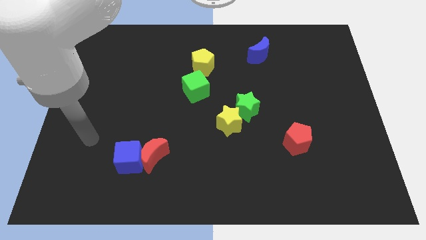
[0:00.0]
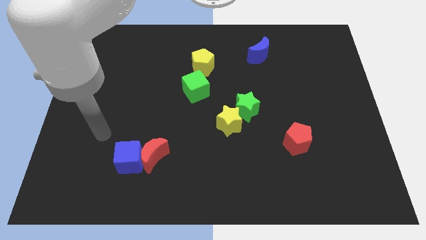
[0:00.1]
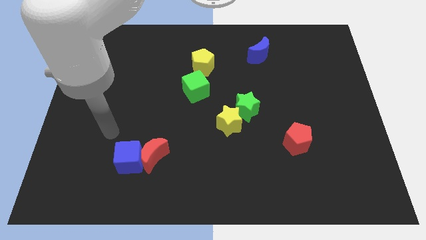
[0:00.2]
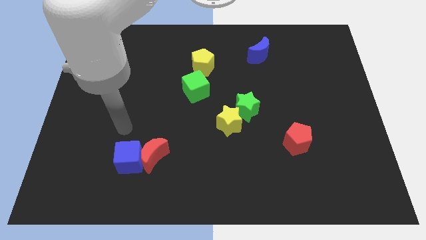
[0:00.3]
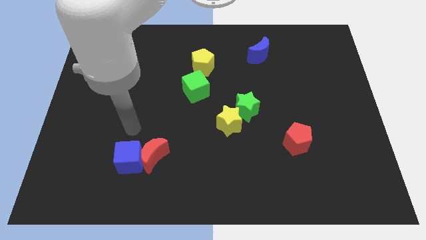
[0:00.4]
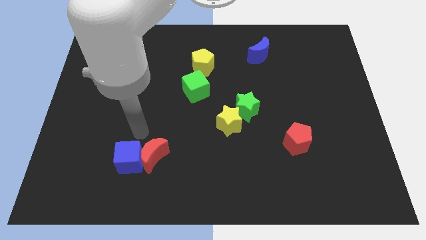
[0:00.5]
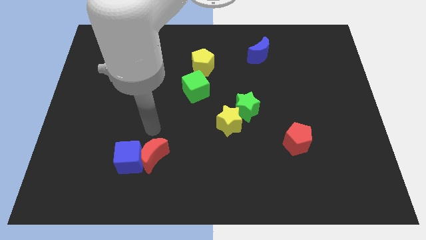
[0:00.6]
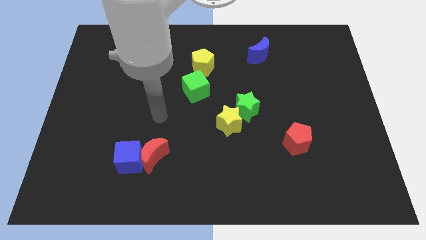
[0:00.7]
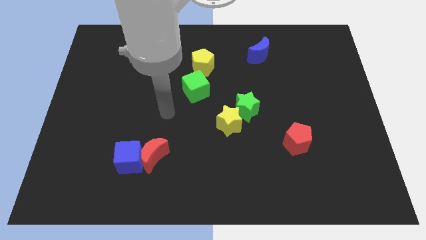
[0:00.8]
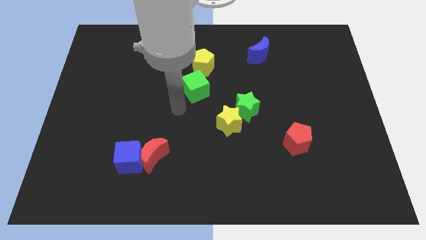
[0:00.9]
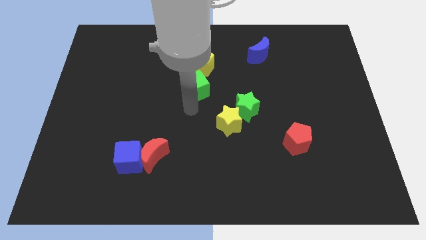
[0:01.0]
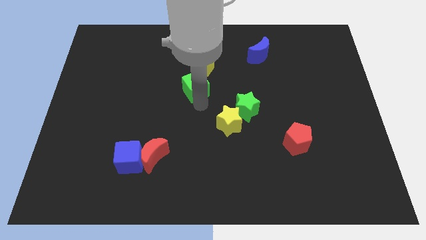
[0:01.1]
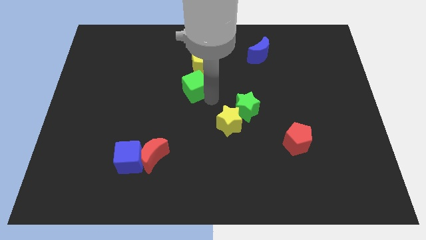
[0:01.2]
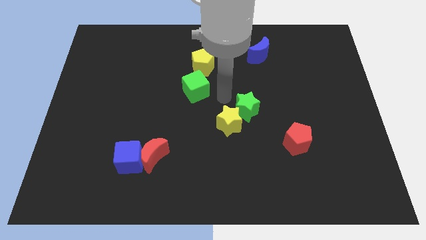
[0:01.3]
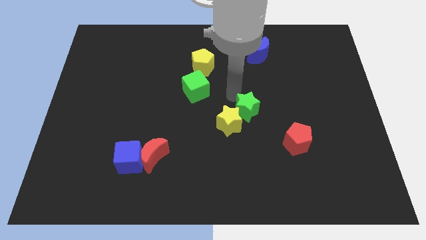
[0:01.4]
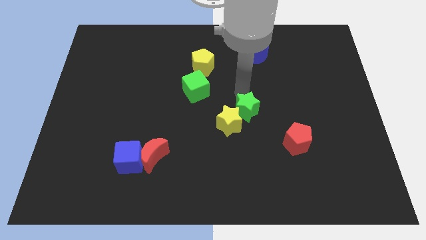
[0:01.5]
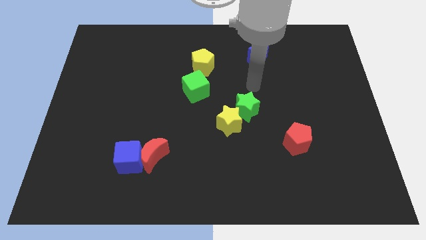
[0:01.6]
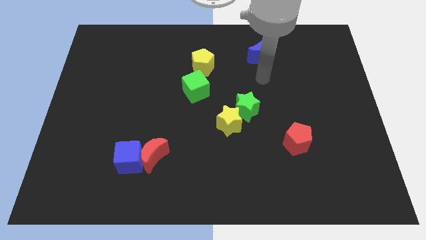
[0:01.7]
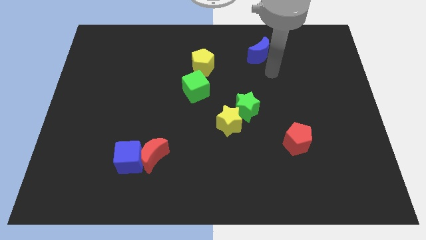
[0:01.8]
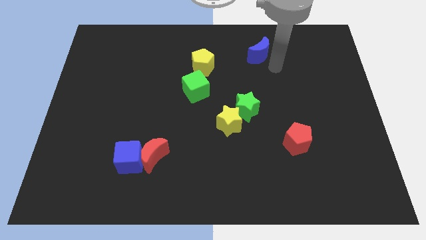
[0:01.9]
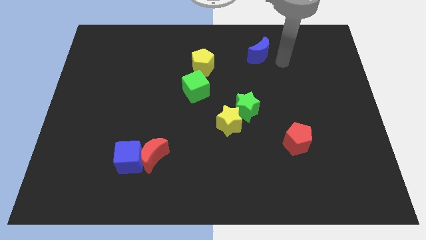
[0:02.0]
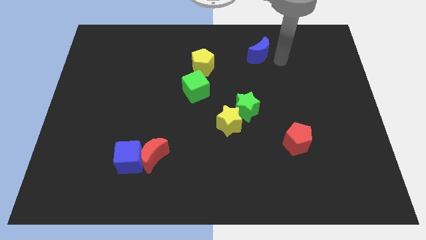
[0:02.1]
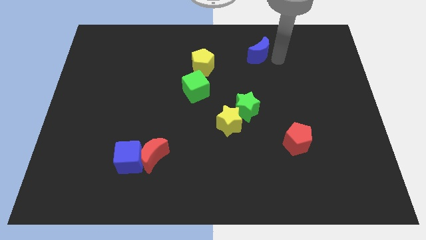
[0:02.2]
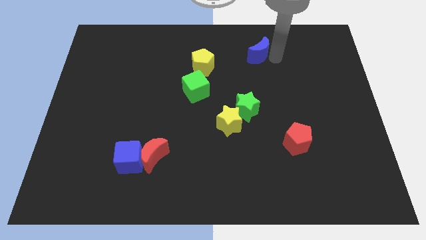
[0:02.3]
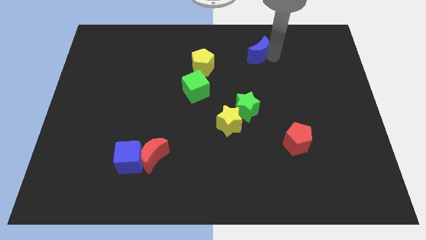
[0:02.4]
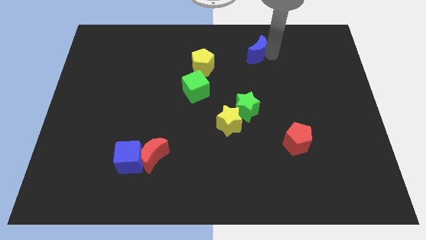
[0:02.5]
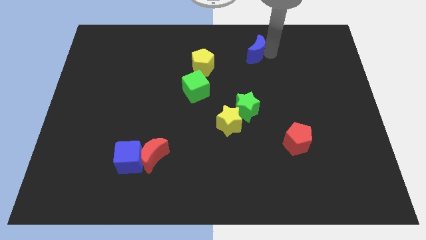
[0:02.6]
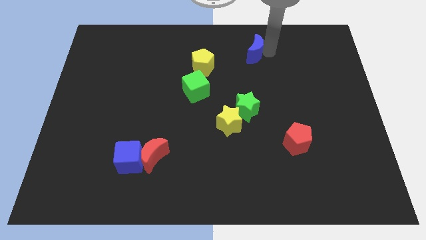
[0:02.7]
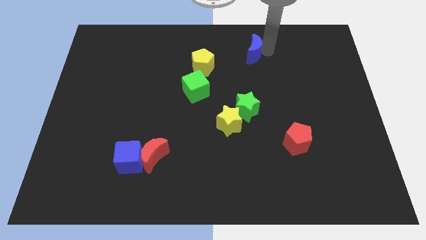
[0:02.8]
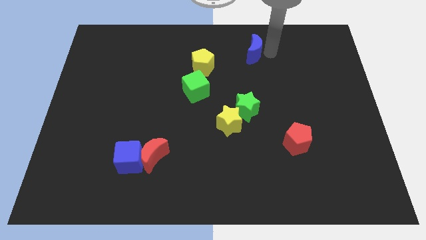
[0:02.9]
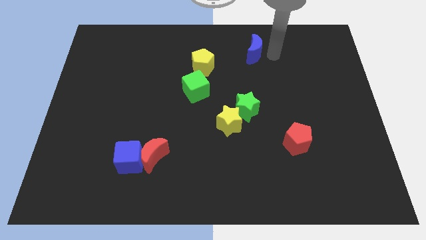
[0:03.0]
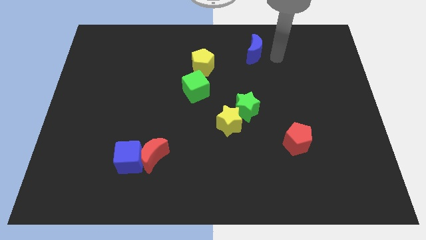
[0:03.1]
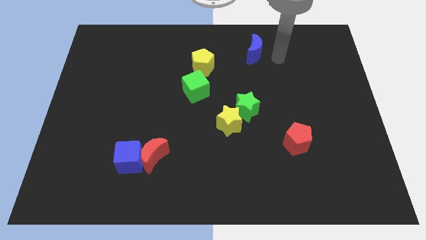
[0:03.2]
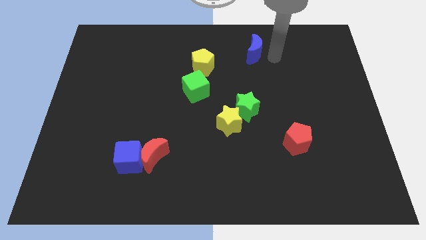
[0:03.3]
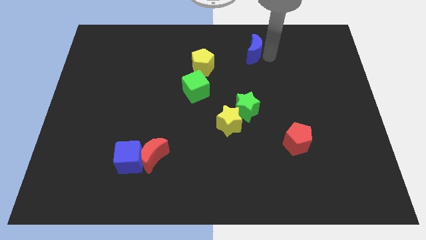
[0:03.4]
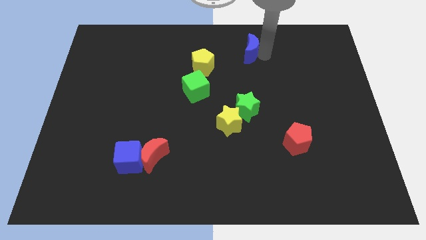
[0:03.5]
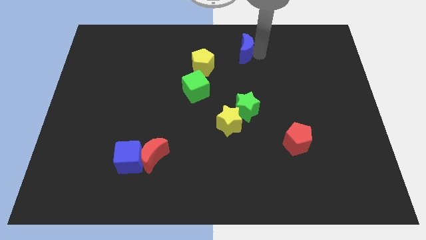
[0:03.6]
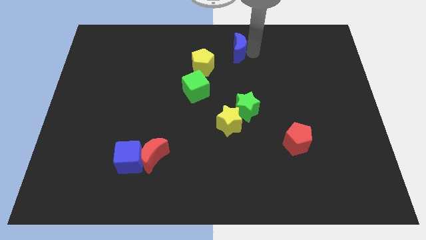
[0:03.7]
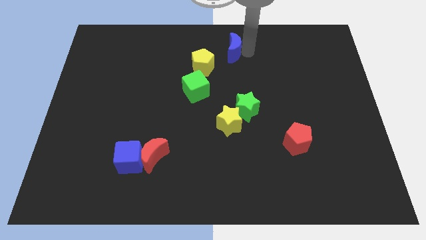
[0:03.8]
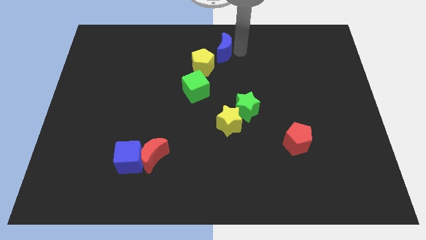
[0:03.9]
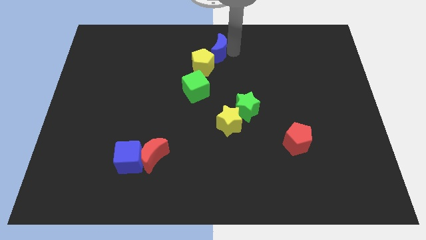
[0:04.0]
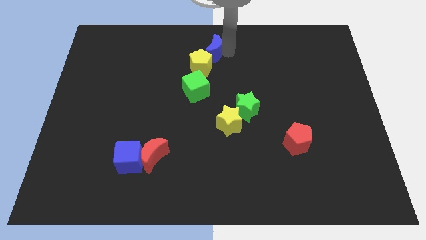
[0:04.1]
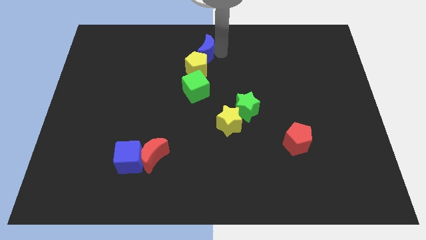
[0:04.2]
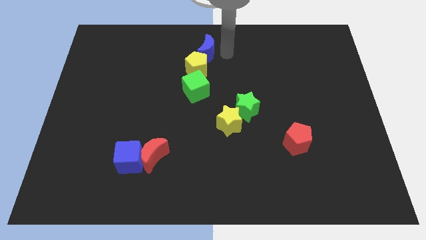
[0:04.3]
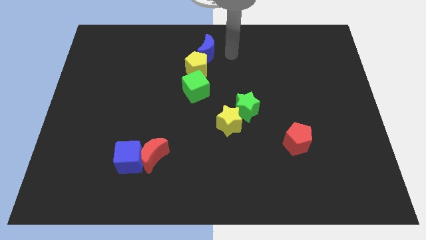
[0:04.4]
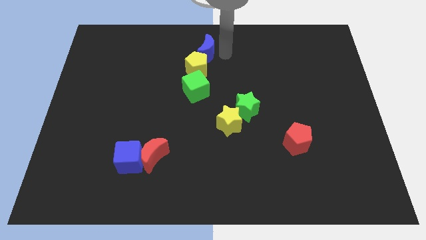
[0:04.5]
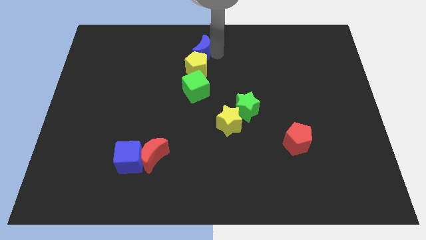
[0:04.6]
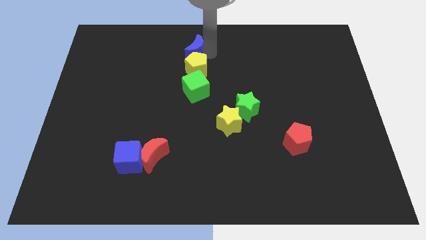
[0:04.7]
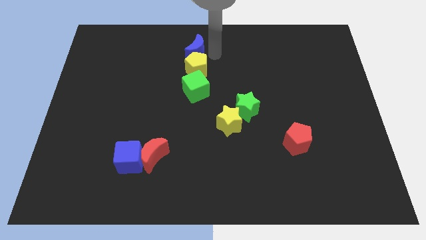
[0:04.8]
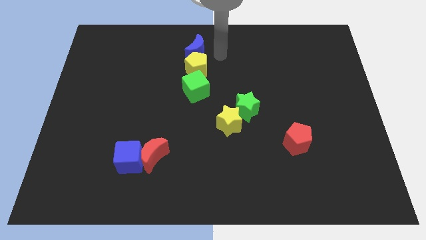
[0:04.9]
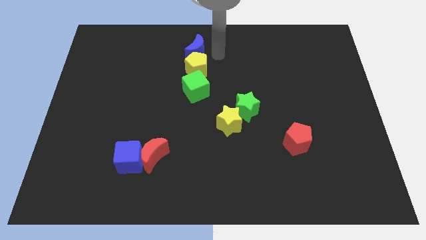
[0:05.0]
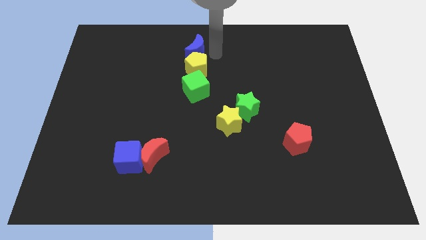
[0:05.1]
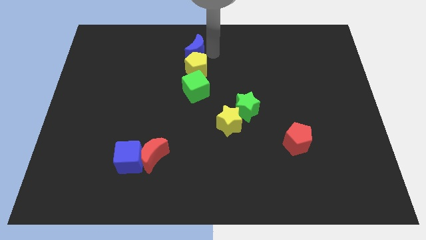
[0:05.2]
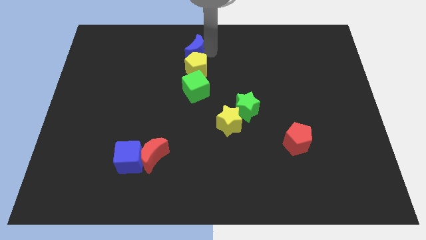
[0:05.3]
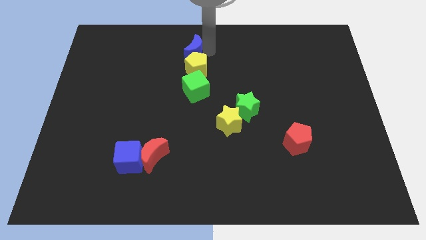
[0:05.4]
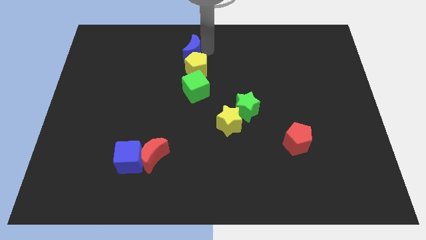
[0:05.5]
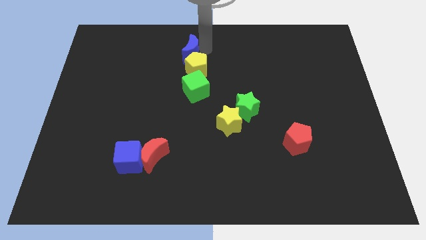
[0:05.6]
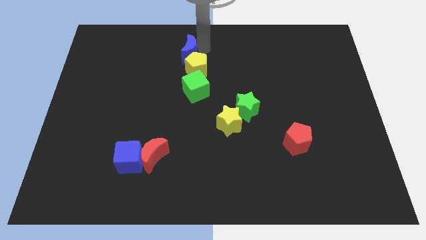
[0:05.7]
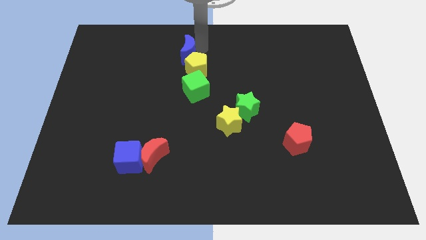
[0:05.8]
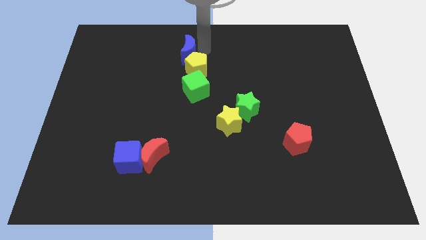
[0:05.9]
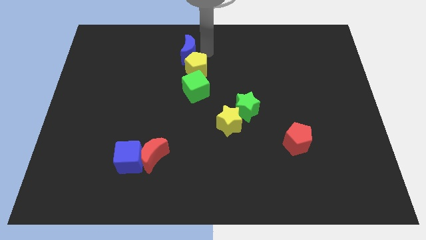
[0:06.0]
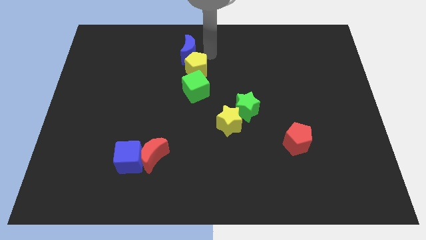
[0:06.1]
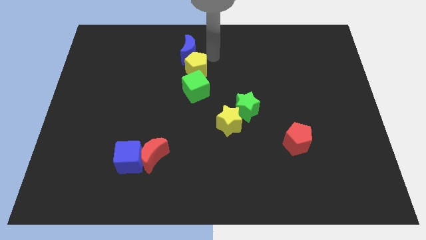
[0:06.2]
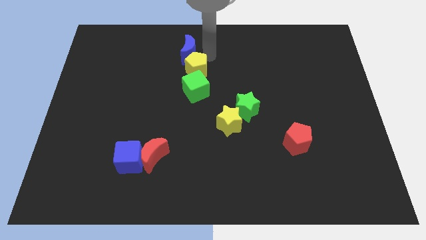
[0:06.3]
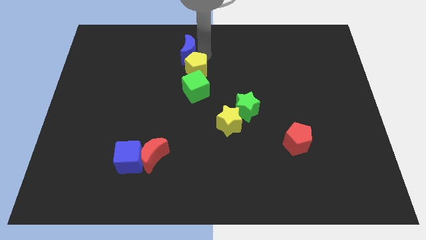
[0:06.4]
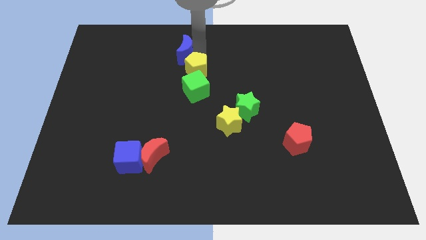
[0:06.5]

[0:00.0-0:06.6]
slide the blue moon left

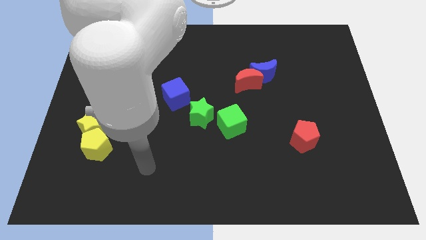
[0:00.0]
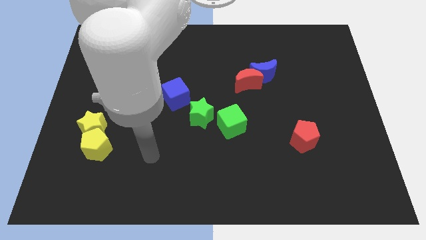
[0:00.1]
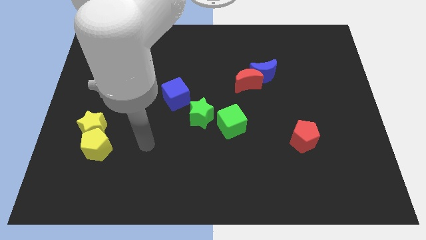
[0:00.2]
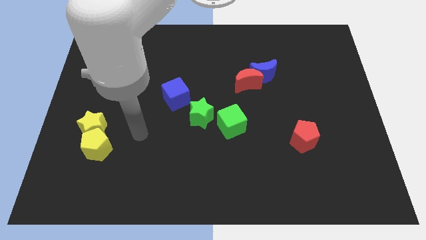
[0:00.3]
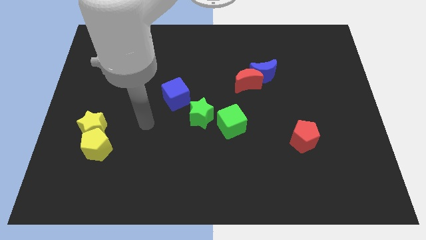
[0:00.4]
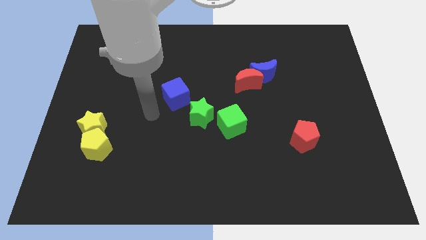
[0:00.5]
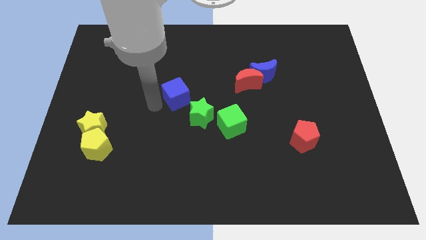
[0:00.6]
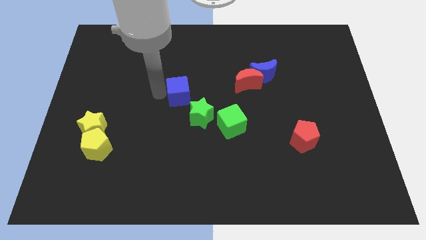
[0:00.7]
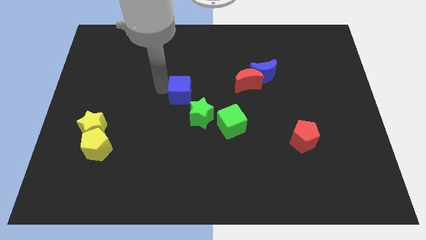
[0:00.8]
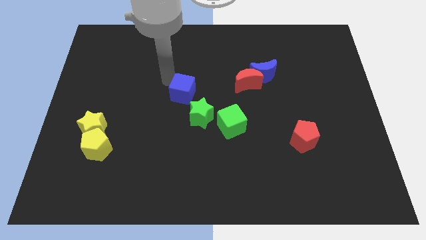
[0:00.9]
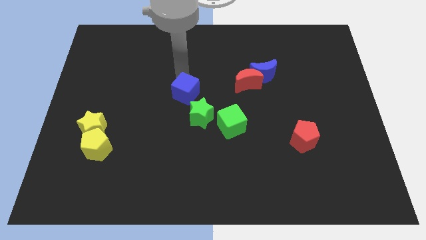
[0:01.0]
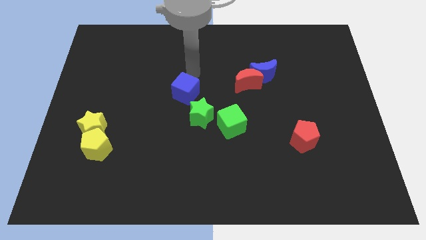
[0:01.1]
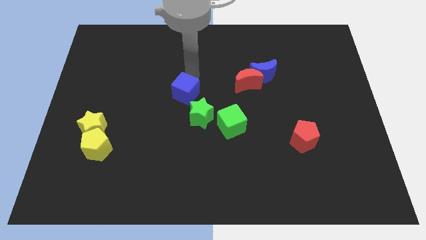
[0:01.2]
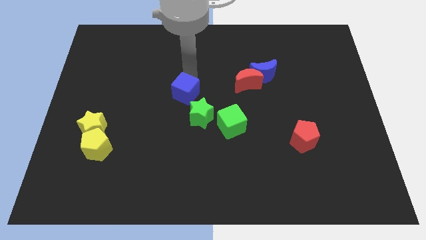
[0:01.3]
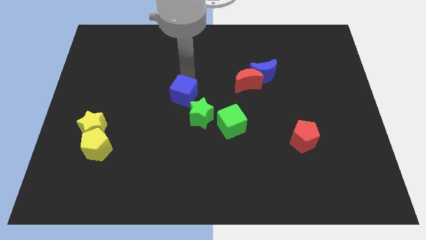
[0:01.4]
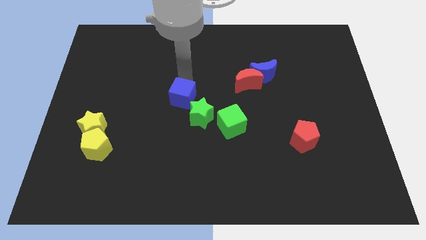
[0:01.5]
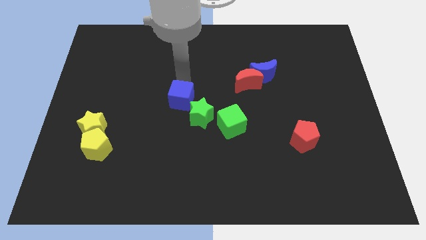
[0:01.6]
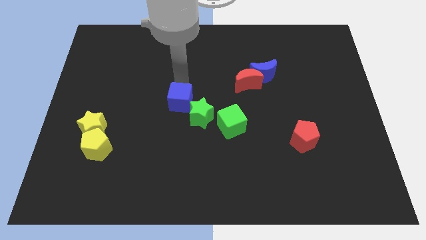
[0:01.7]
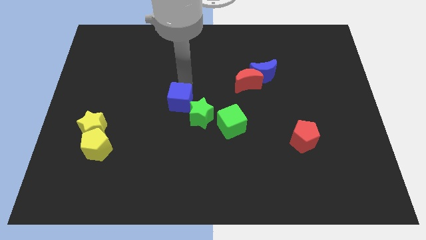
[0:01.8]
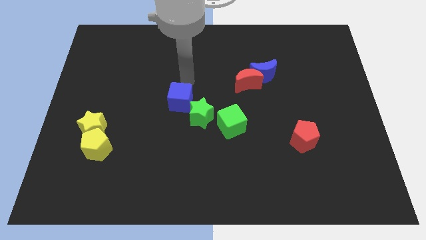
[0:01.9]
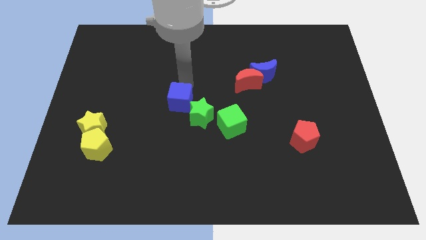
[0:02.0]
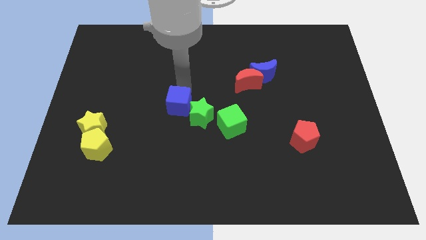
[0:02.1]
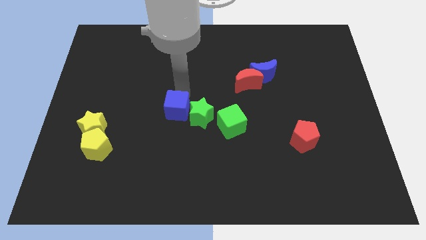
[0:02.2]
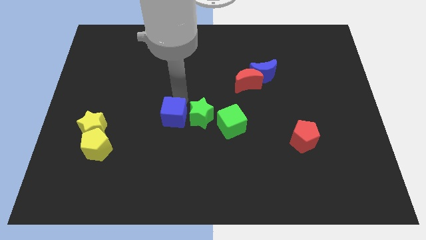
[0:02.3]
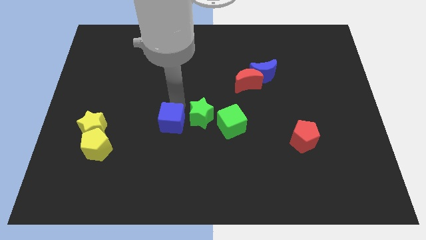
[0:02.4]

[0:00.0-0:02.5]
slightly slide the blue cube downwards
